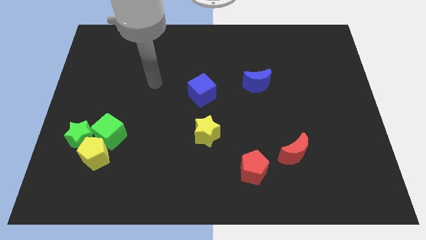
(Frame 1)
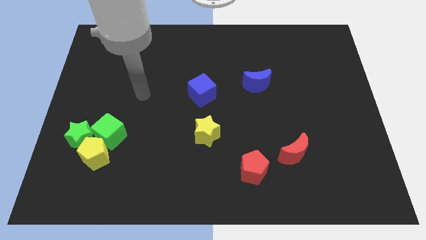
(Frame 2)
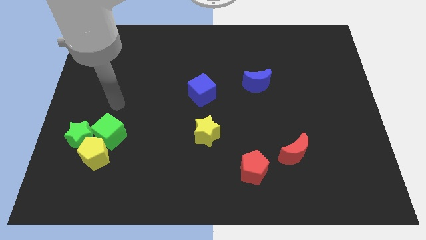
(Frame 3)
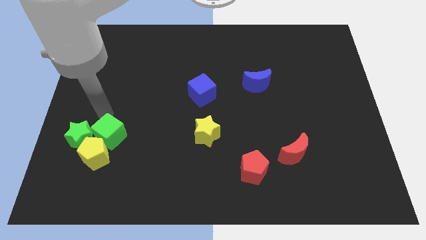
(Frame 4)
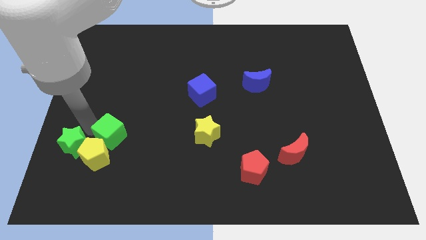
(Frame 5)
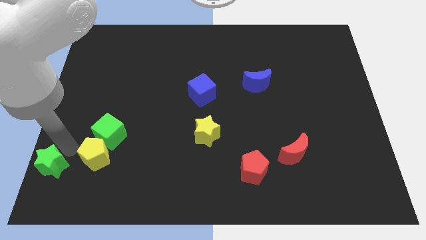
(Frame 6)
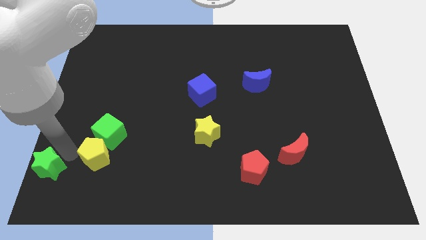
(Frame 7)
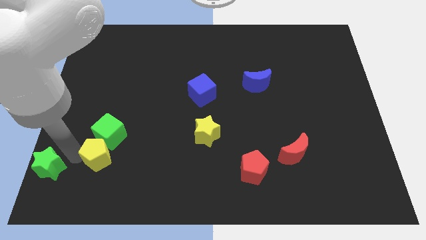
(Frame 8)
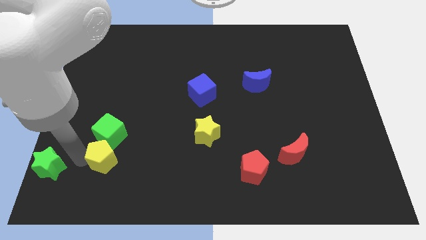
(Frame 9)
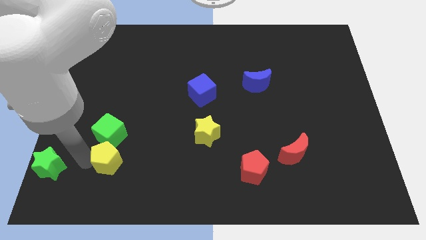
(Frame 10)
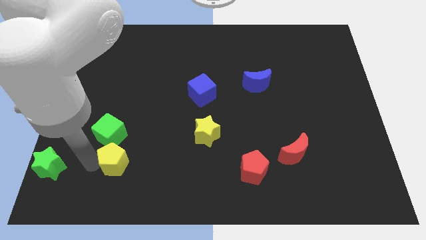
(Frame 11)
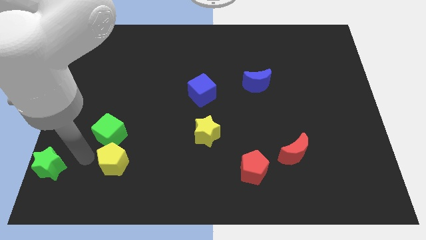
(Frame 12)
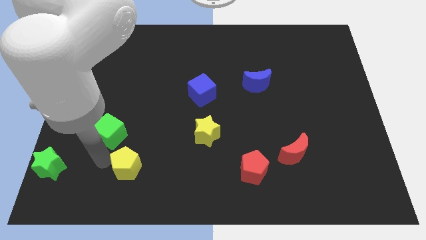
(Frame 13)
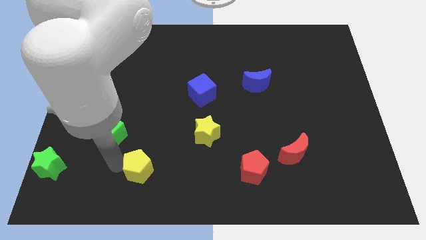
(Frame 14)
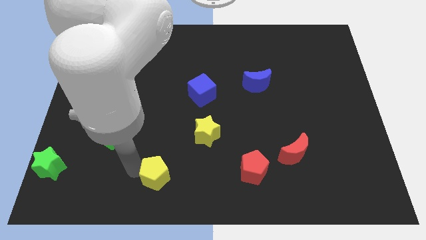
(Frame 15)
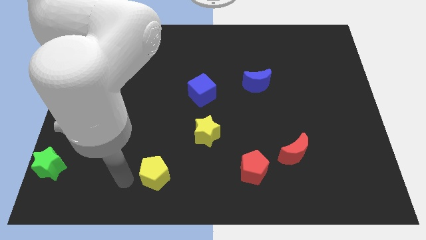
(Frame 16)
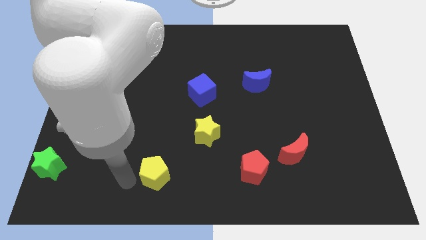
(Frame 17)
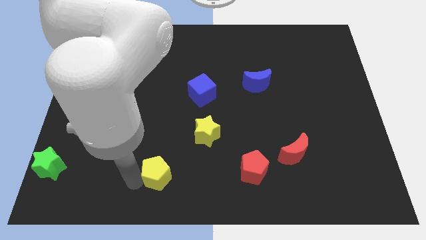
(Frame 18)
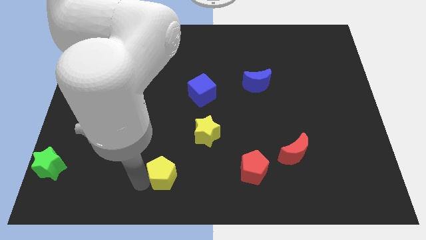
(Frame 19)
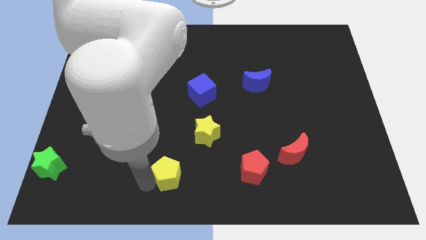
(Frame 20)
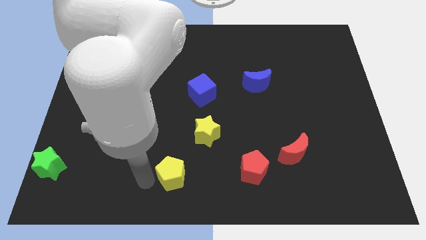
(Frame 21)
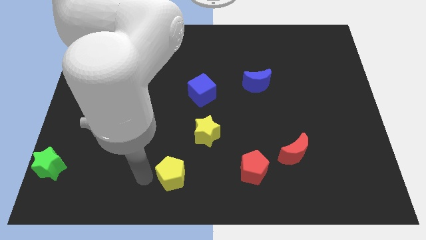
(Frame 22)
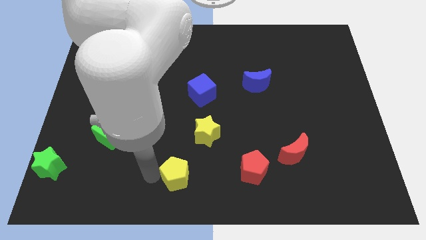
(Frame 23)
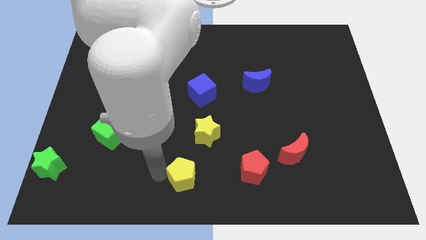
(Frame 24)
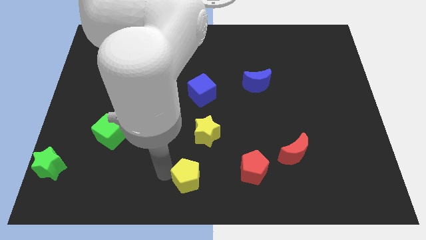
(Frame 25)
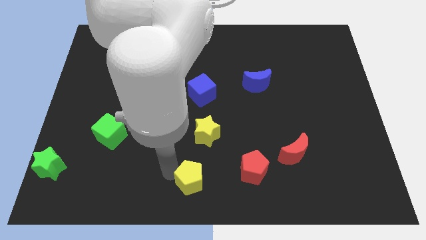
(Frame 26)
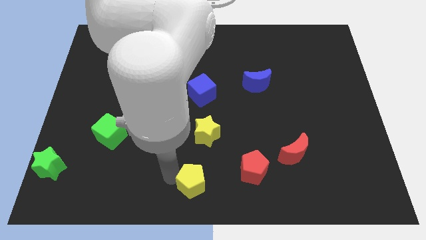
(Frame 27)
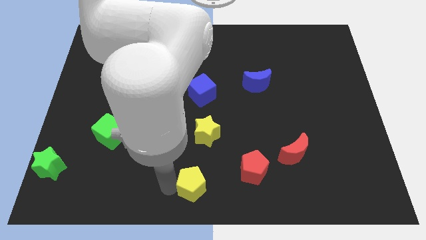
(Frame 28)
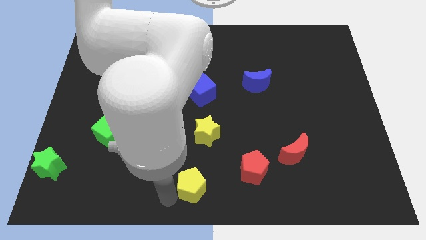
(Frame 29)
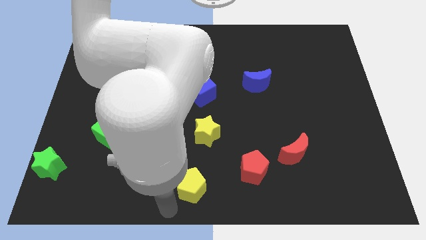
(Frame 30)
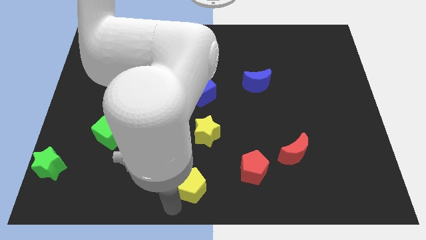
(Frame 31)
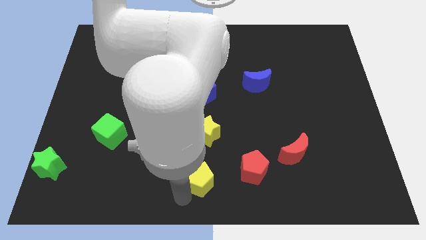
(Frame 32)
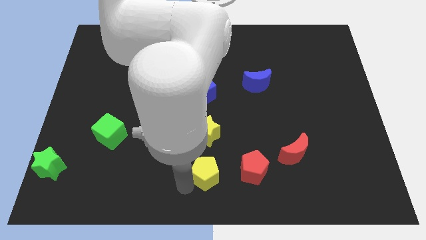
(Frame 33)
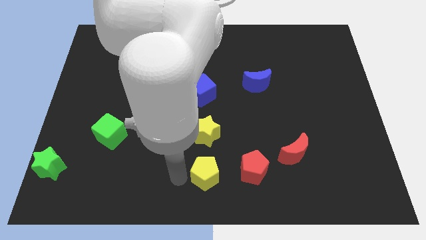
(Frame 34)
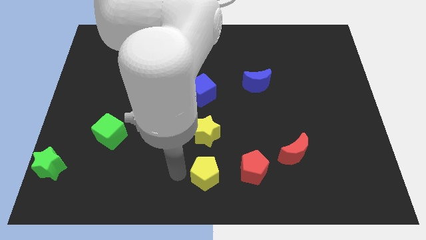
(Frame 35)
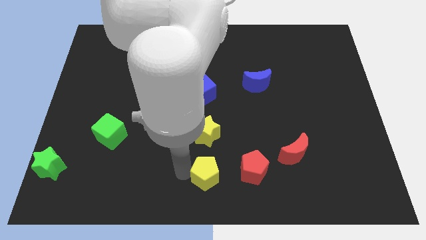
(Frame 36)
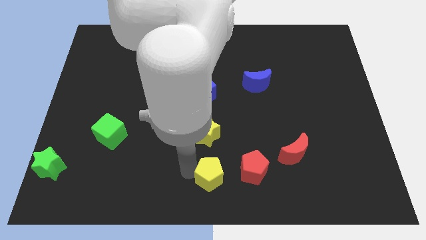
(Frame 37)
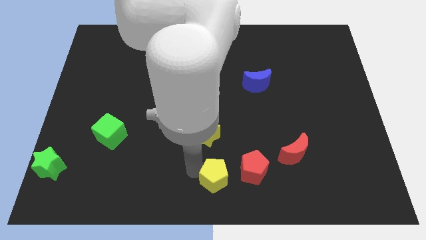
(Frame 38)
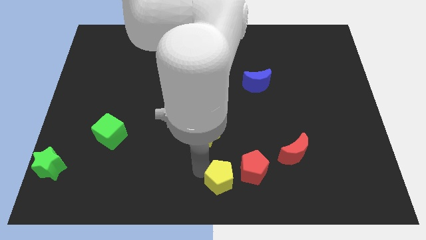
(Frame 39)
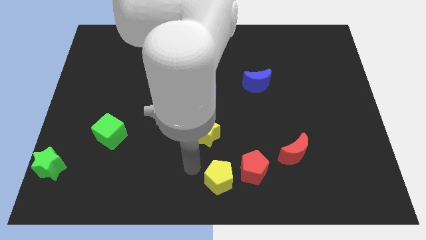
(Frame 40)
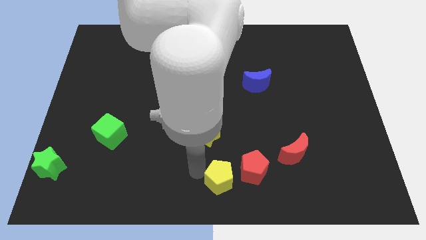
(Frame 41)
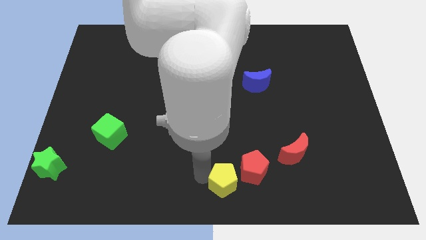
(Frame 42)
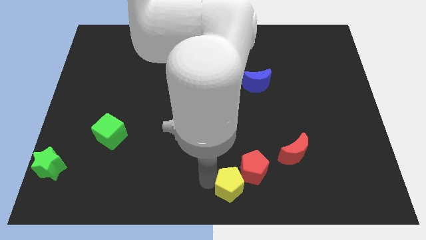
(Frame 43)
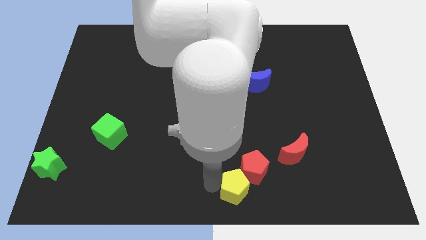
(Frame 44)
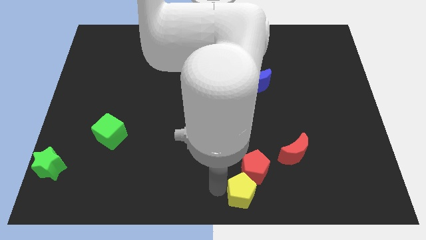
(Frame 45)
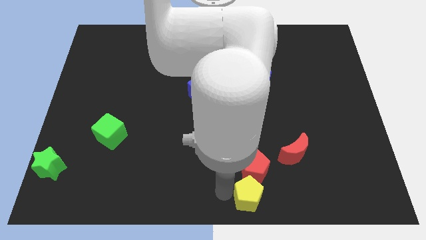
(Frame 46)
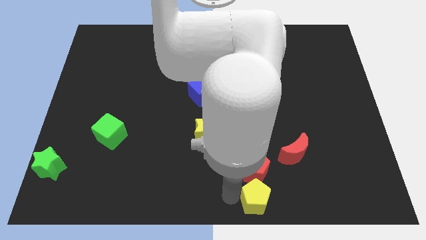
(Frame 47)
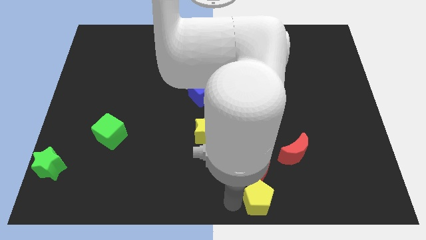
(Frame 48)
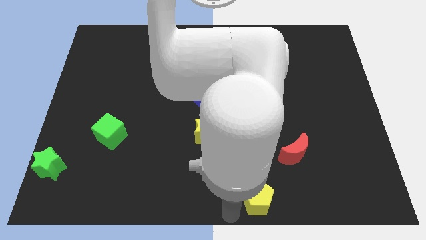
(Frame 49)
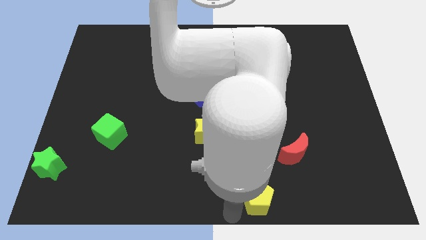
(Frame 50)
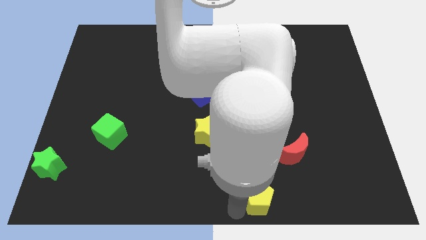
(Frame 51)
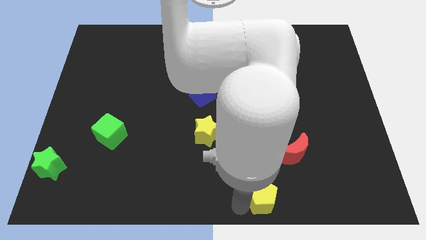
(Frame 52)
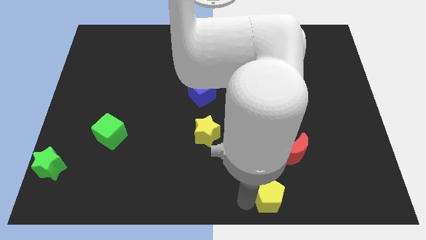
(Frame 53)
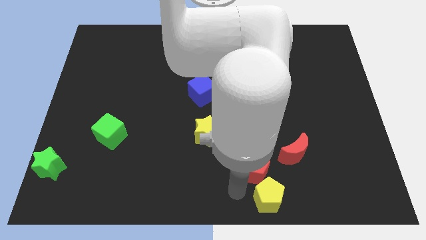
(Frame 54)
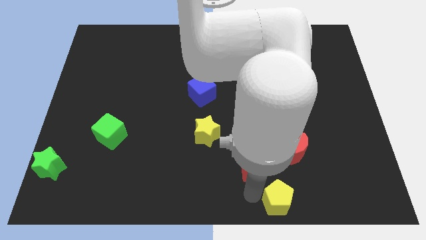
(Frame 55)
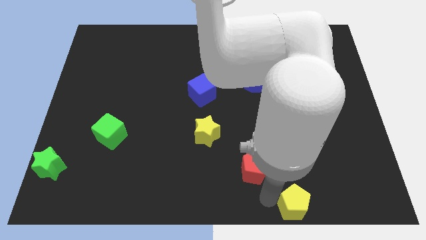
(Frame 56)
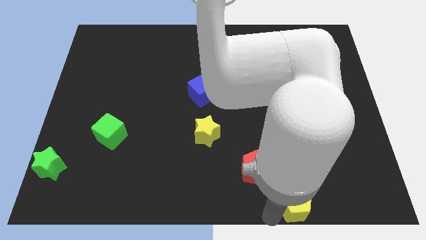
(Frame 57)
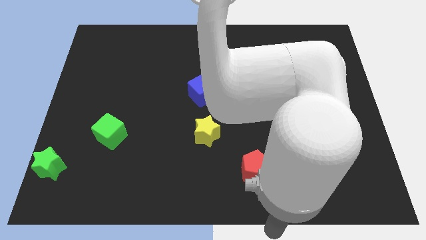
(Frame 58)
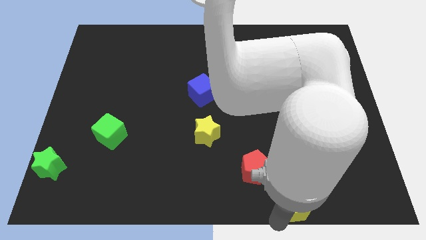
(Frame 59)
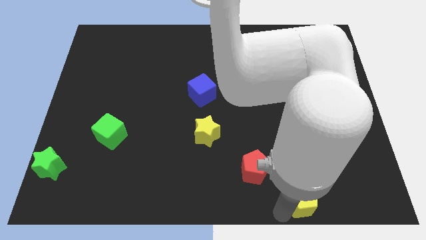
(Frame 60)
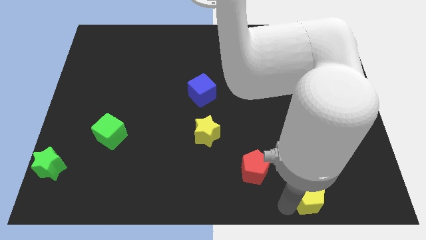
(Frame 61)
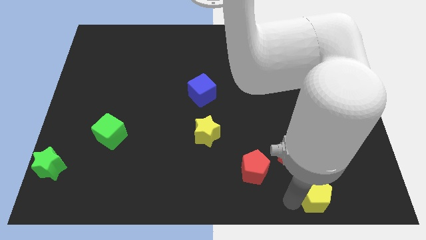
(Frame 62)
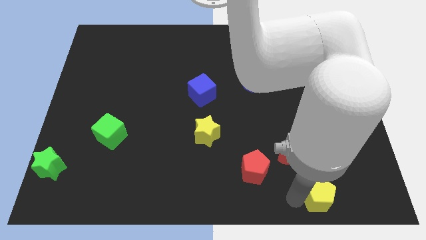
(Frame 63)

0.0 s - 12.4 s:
move the yellow pentagon to the bottom right of the red moon

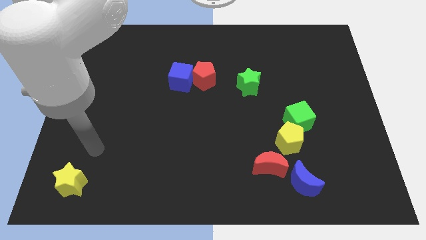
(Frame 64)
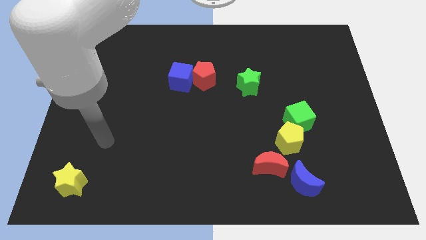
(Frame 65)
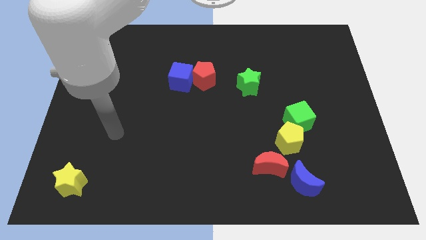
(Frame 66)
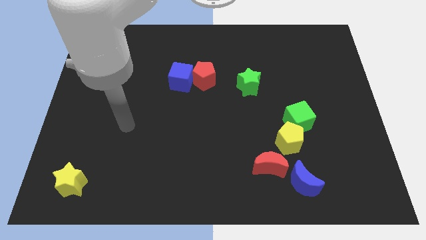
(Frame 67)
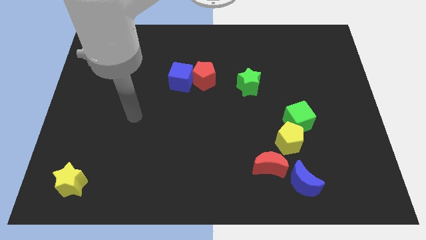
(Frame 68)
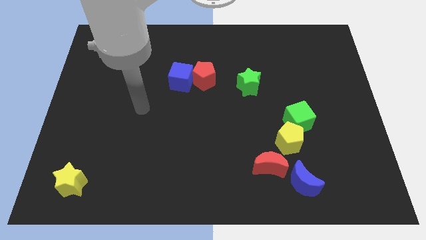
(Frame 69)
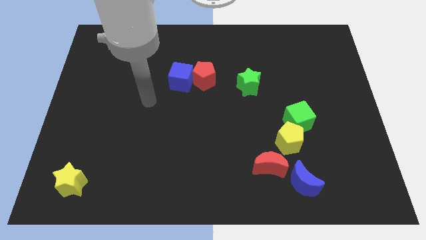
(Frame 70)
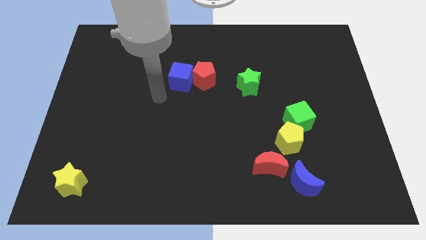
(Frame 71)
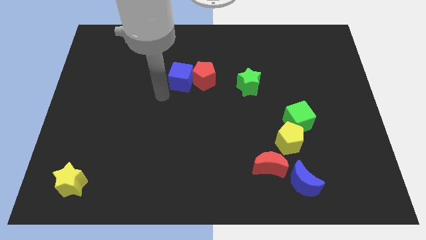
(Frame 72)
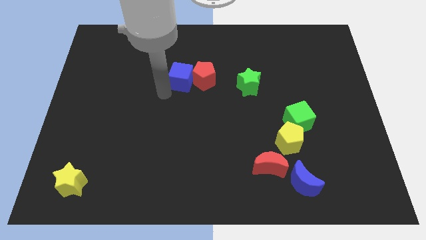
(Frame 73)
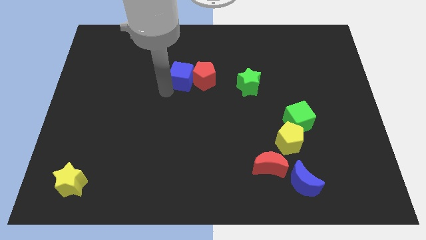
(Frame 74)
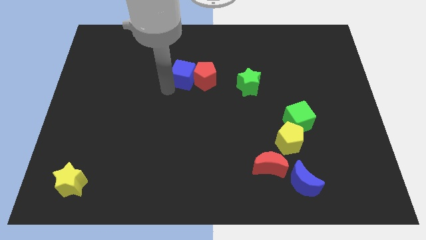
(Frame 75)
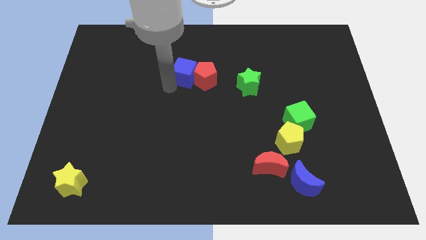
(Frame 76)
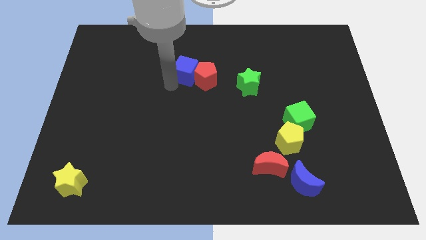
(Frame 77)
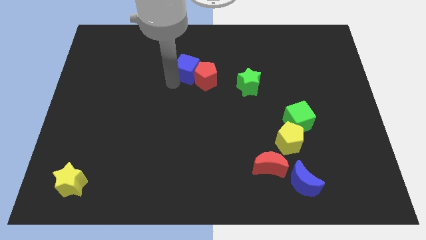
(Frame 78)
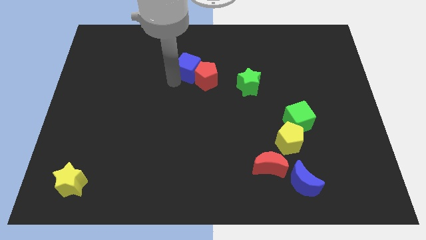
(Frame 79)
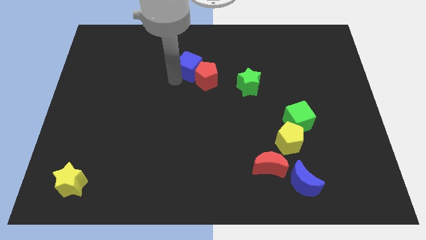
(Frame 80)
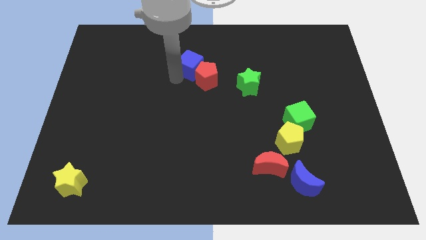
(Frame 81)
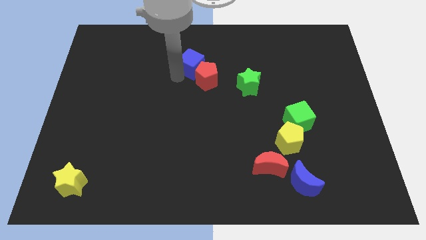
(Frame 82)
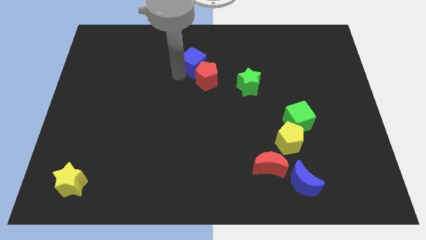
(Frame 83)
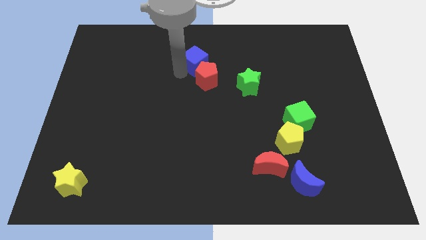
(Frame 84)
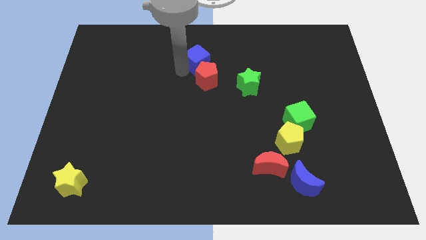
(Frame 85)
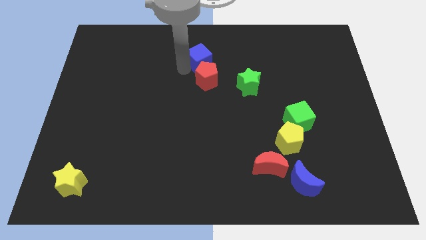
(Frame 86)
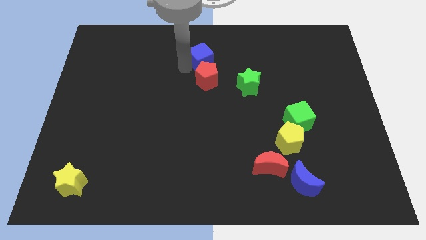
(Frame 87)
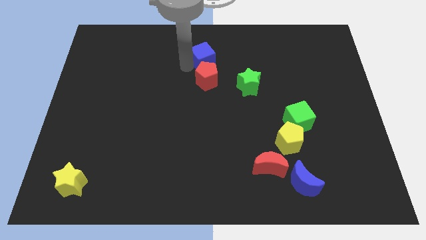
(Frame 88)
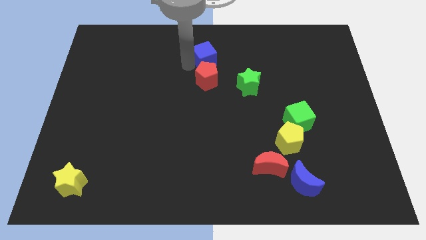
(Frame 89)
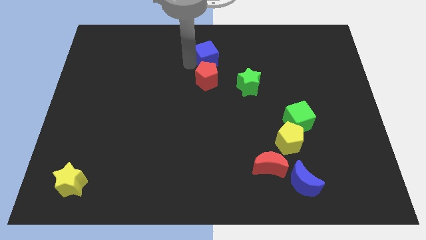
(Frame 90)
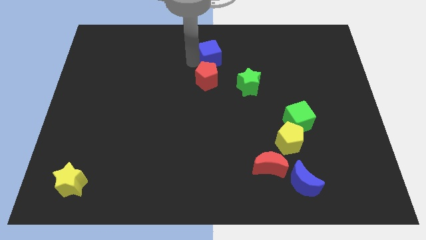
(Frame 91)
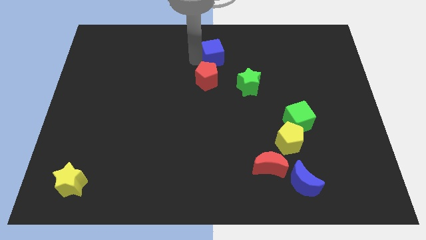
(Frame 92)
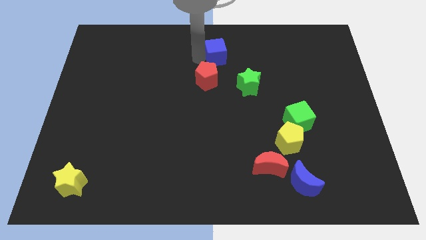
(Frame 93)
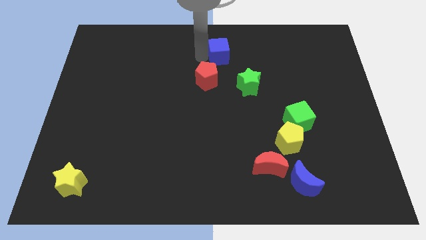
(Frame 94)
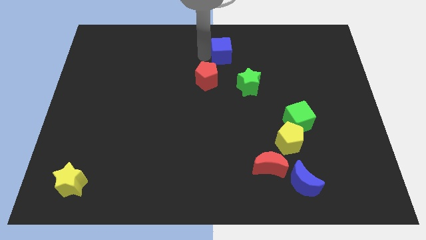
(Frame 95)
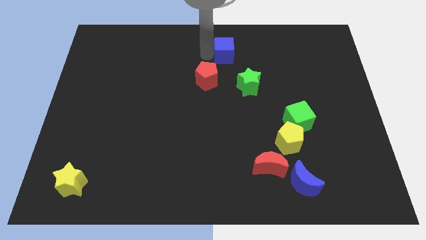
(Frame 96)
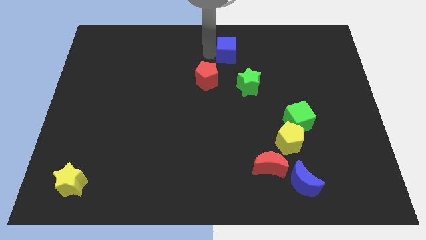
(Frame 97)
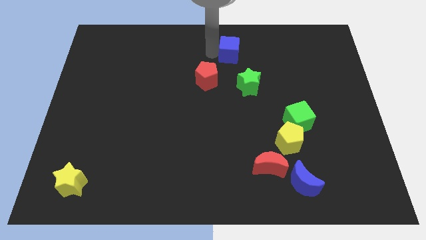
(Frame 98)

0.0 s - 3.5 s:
put the blue cube to the top side of the green star
